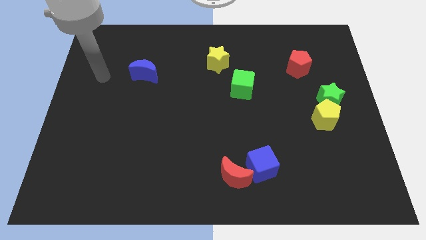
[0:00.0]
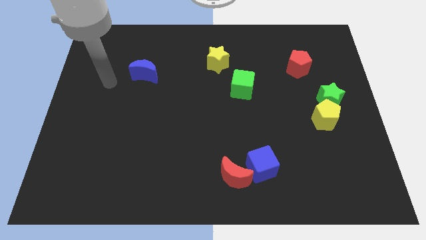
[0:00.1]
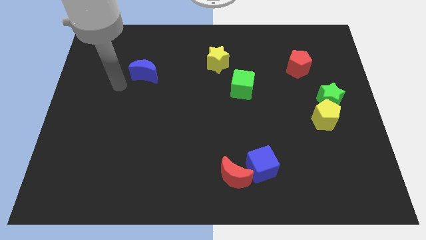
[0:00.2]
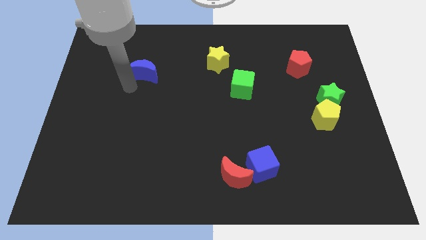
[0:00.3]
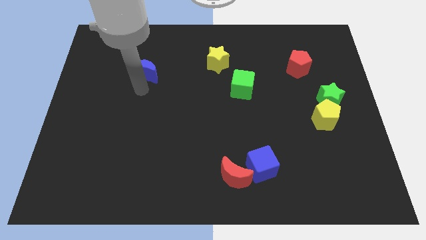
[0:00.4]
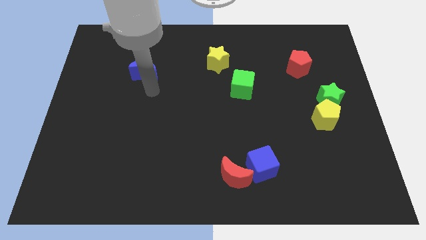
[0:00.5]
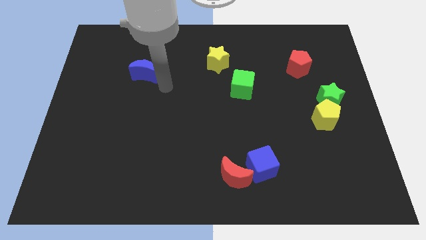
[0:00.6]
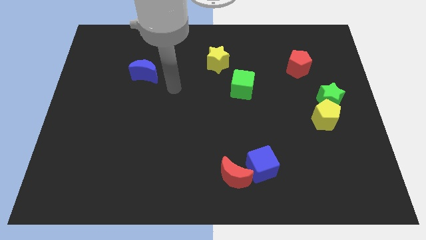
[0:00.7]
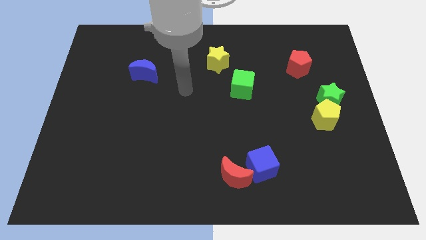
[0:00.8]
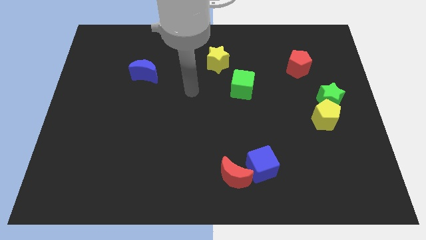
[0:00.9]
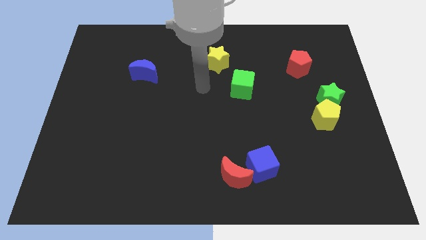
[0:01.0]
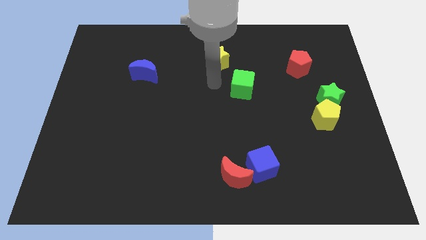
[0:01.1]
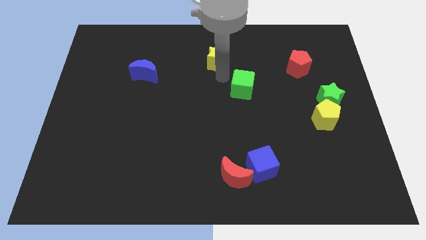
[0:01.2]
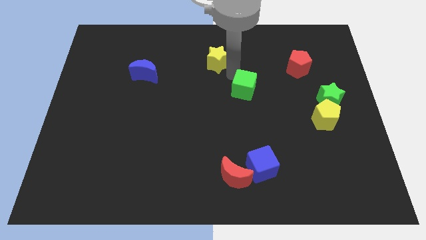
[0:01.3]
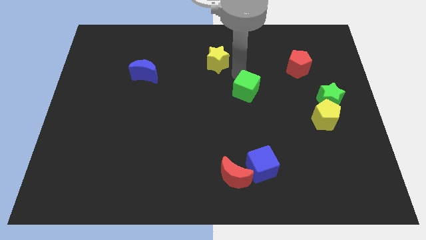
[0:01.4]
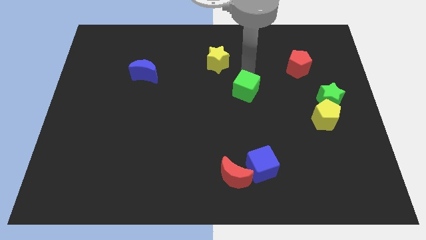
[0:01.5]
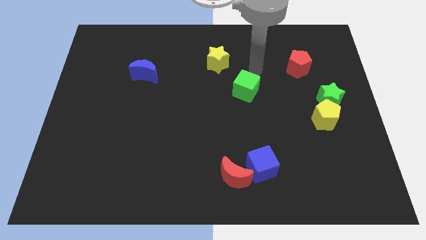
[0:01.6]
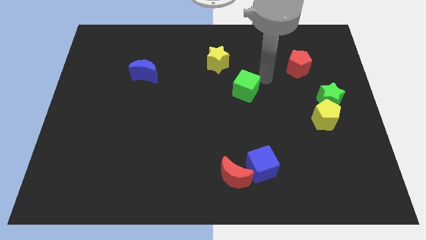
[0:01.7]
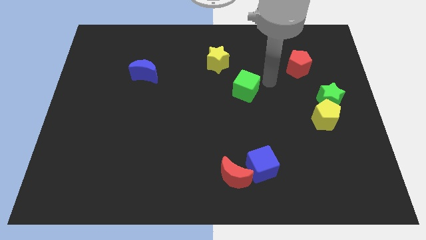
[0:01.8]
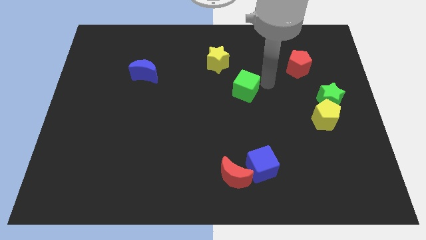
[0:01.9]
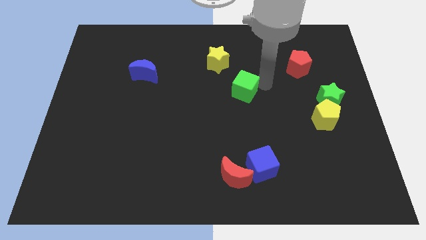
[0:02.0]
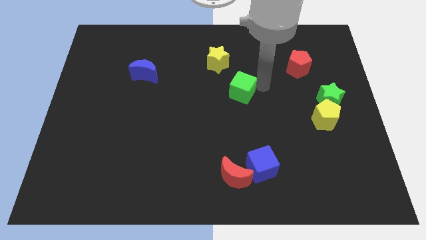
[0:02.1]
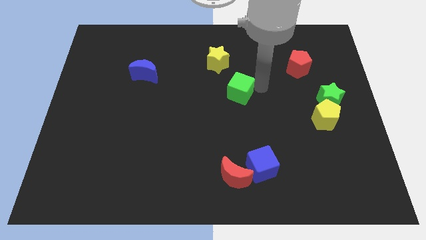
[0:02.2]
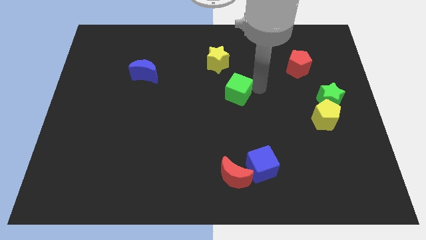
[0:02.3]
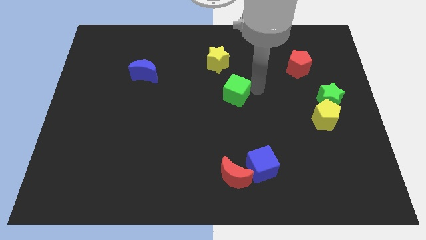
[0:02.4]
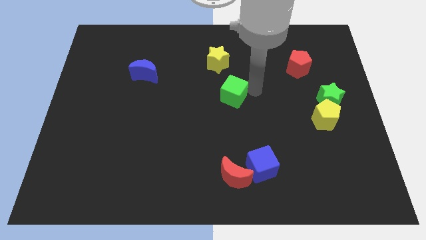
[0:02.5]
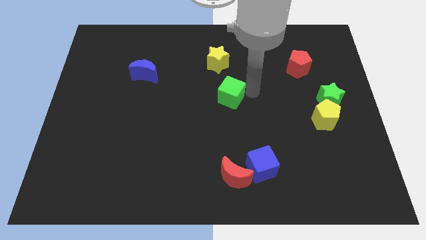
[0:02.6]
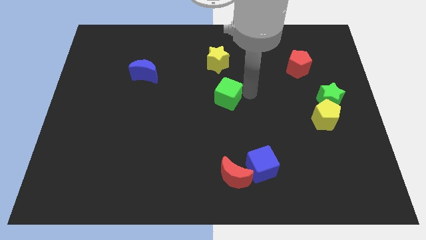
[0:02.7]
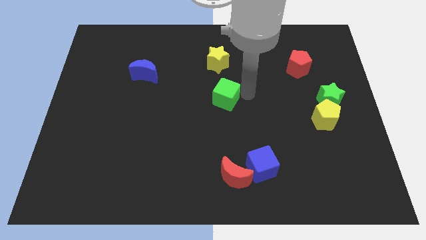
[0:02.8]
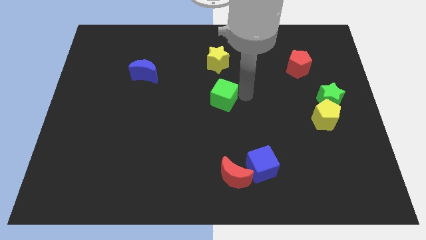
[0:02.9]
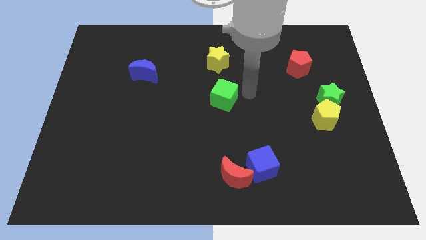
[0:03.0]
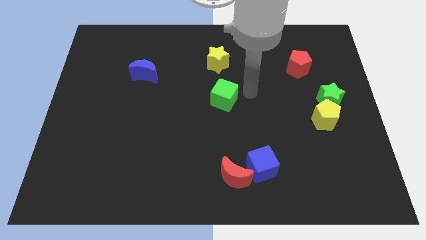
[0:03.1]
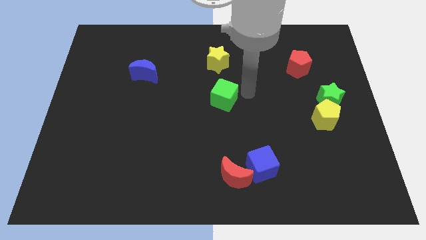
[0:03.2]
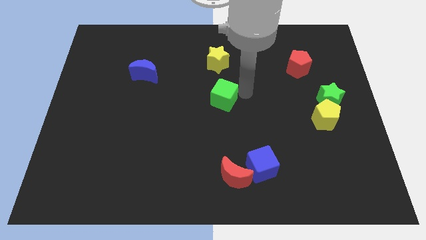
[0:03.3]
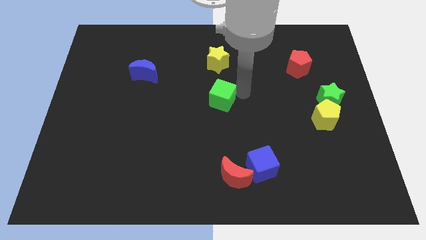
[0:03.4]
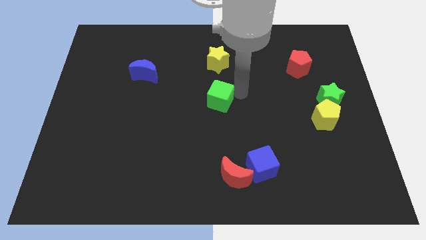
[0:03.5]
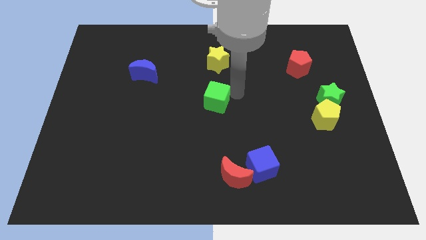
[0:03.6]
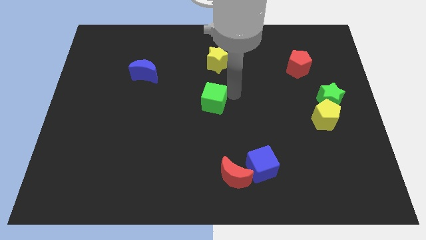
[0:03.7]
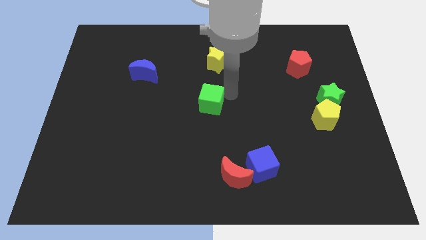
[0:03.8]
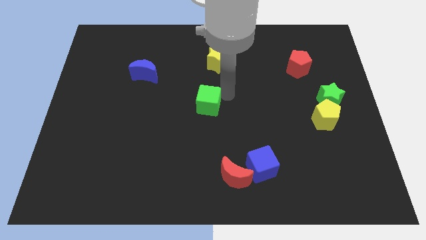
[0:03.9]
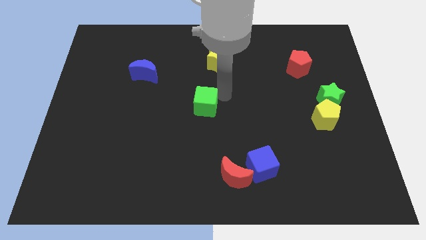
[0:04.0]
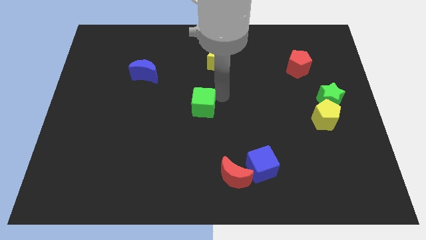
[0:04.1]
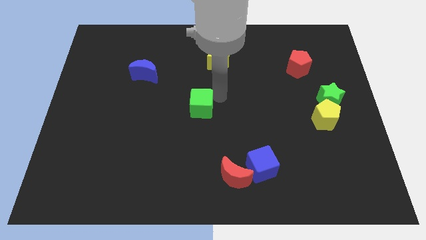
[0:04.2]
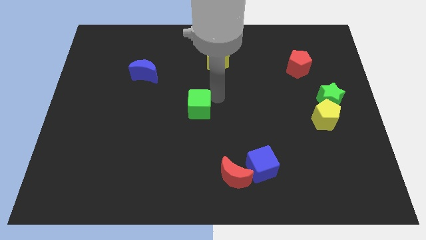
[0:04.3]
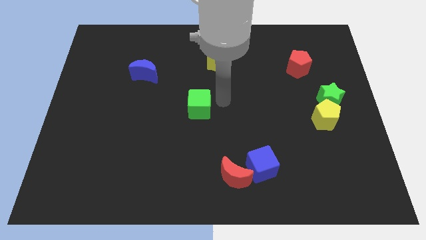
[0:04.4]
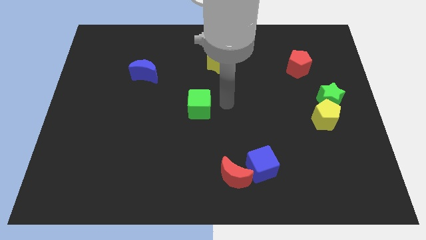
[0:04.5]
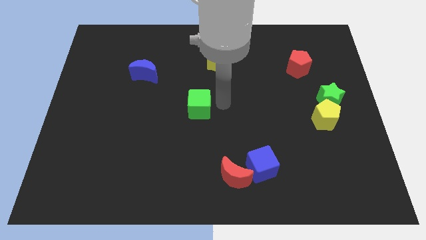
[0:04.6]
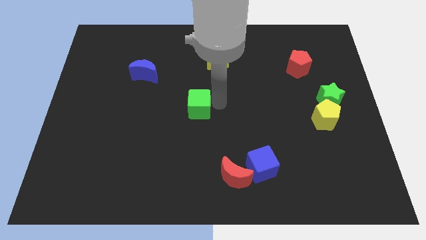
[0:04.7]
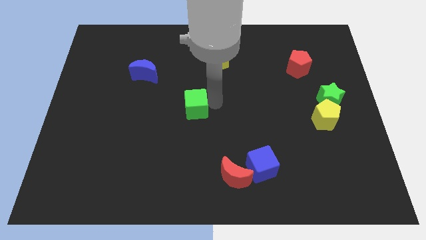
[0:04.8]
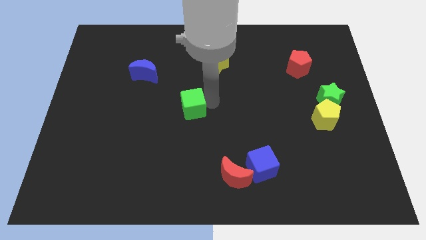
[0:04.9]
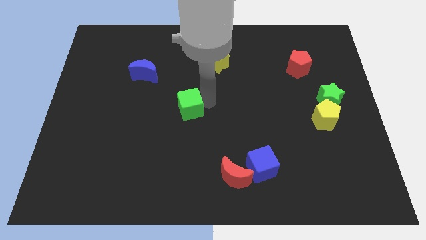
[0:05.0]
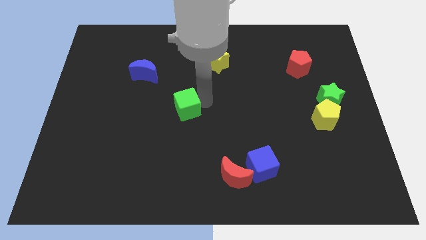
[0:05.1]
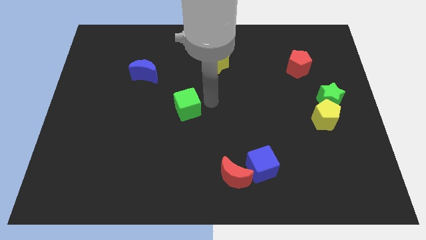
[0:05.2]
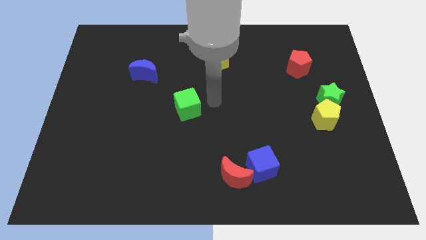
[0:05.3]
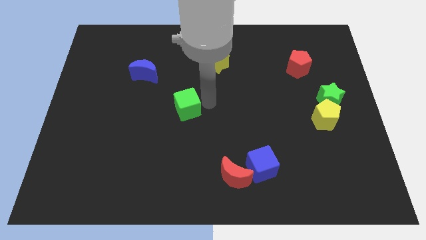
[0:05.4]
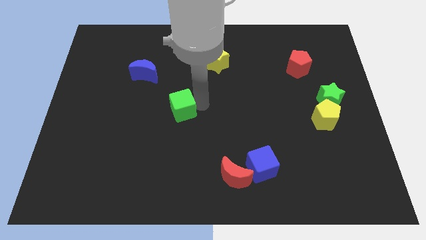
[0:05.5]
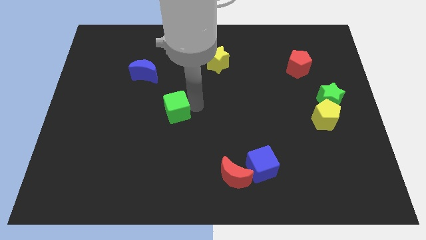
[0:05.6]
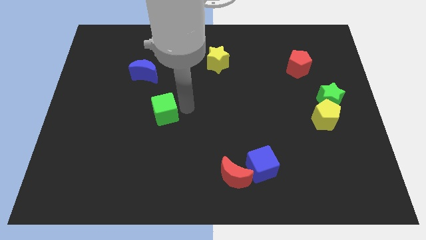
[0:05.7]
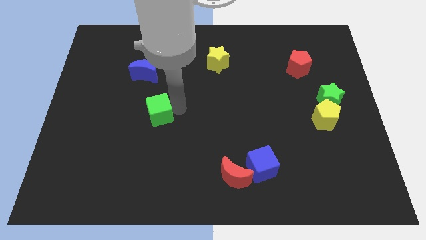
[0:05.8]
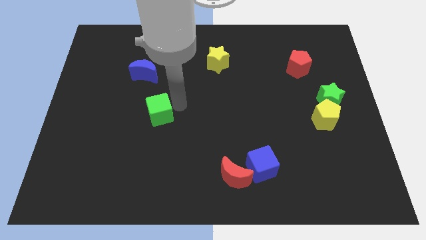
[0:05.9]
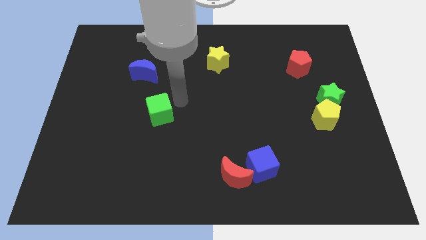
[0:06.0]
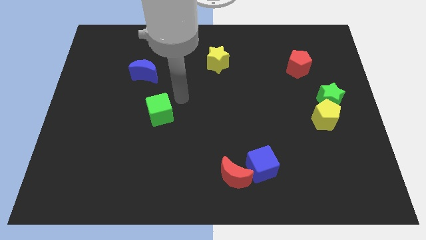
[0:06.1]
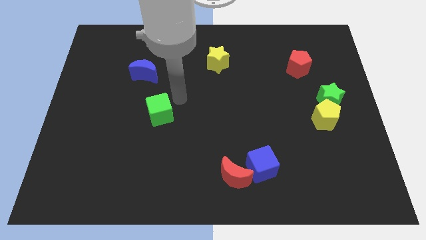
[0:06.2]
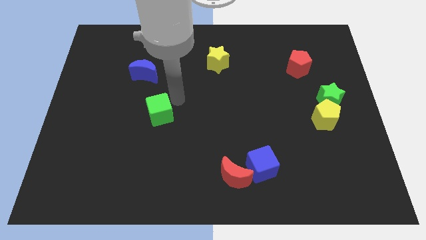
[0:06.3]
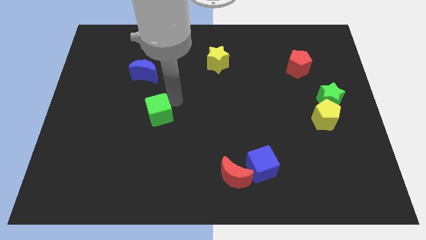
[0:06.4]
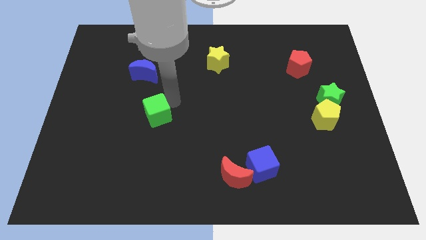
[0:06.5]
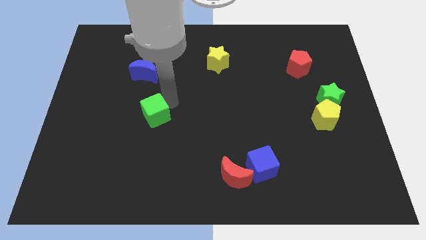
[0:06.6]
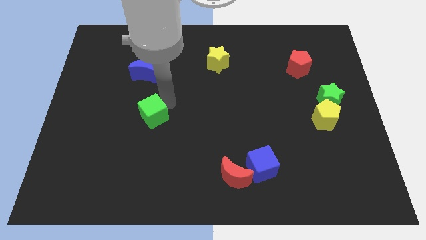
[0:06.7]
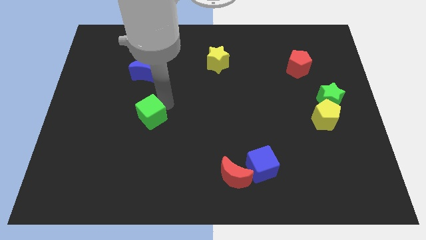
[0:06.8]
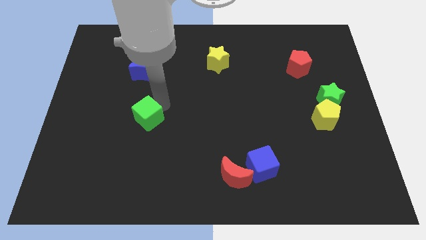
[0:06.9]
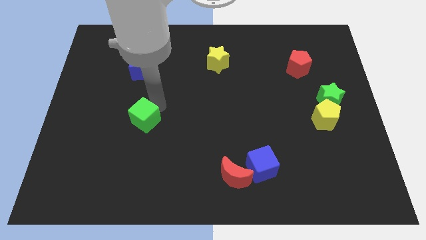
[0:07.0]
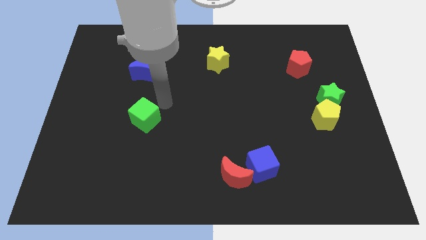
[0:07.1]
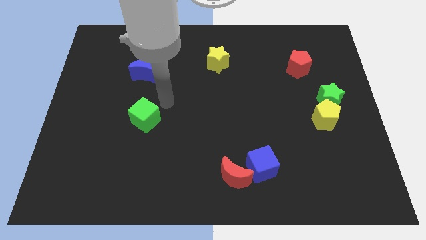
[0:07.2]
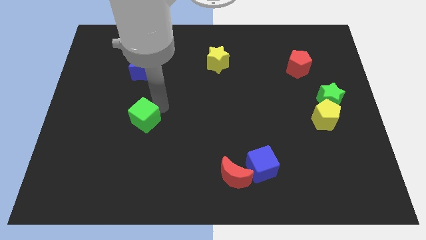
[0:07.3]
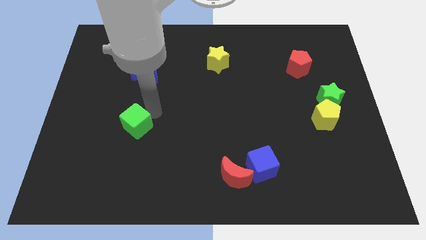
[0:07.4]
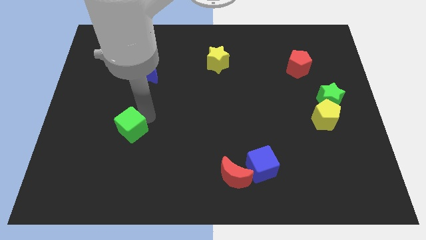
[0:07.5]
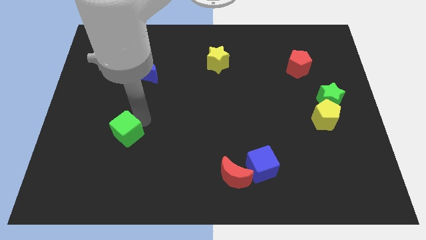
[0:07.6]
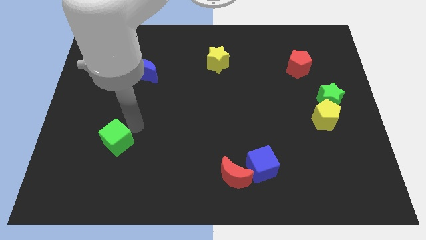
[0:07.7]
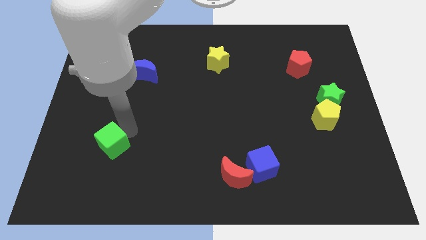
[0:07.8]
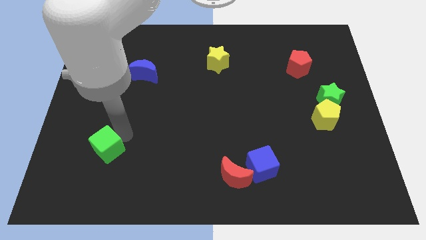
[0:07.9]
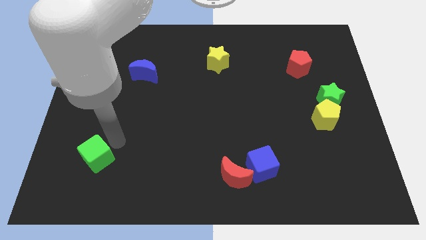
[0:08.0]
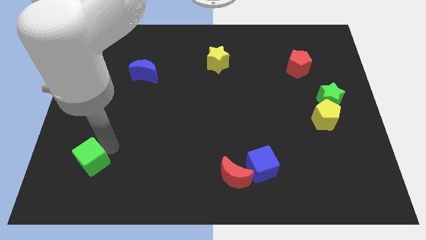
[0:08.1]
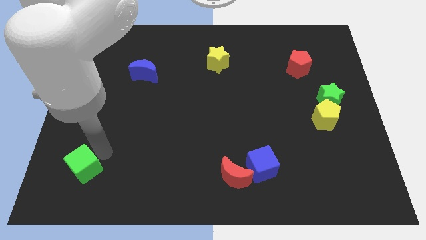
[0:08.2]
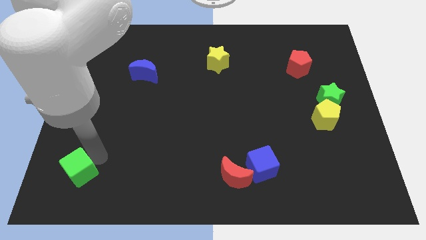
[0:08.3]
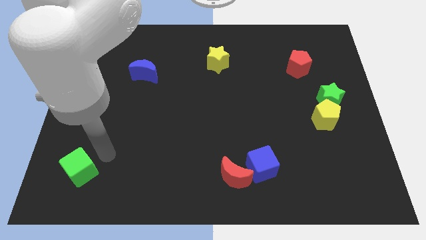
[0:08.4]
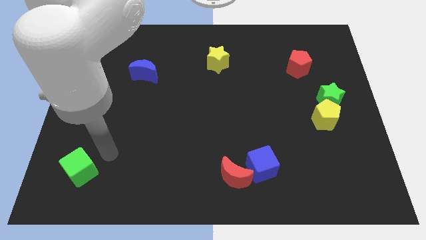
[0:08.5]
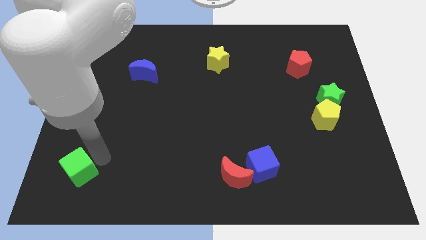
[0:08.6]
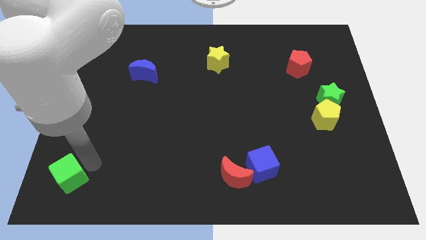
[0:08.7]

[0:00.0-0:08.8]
slide the green cube to the bottom left
